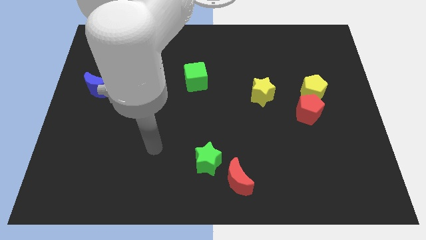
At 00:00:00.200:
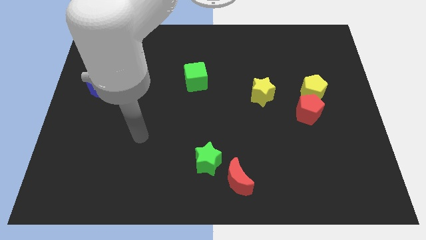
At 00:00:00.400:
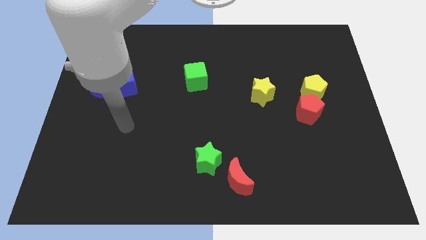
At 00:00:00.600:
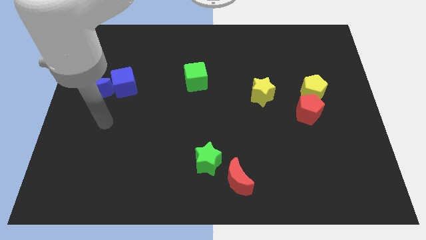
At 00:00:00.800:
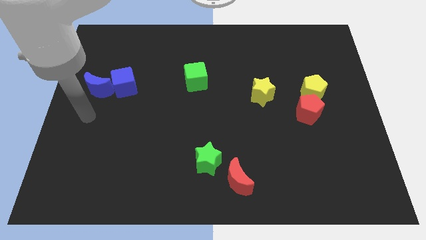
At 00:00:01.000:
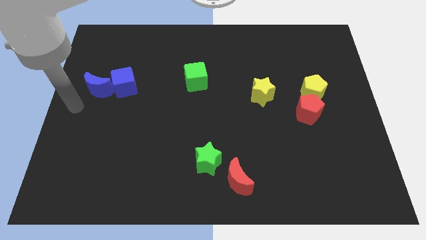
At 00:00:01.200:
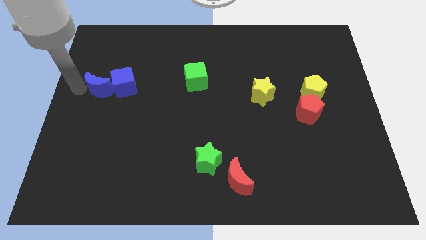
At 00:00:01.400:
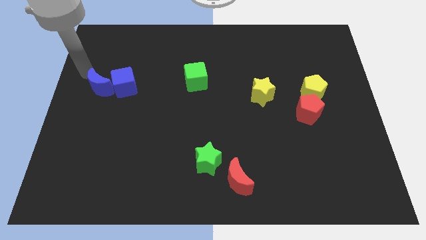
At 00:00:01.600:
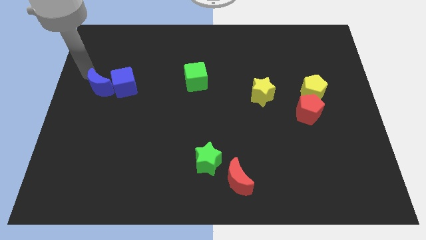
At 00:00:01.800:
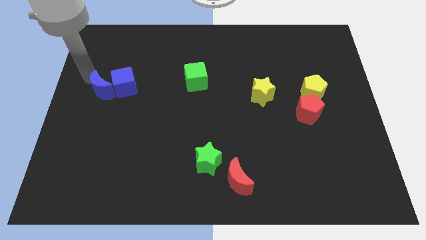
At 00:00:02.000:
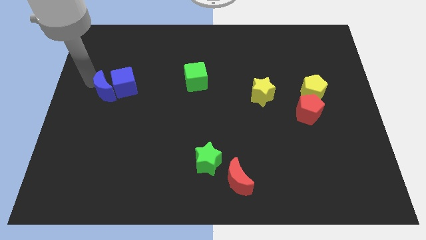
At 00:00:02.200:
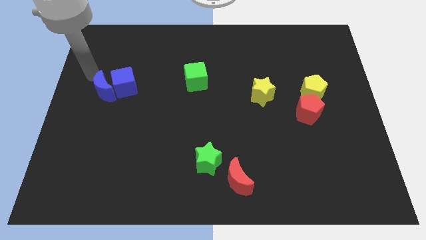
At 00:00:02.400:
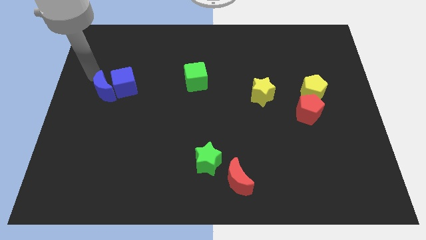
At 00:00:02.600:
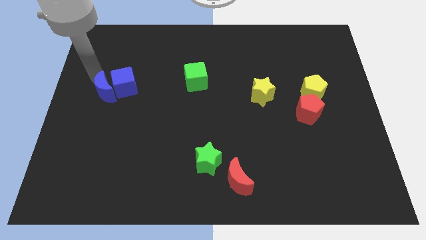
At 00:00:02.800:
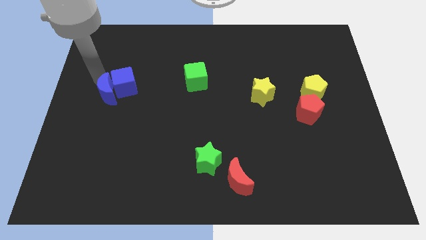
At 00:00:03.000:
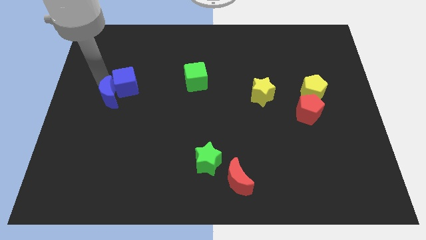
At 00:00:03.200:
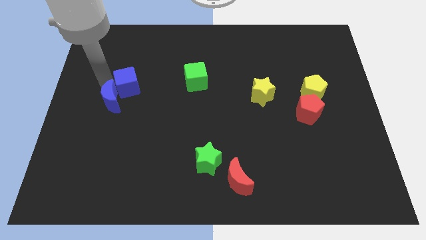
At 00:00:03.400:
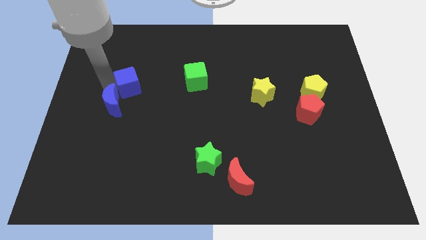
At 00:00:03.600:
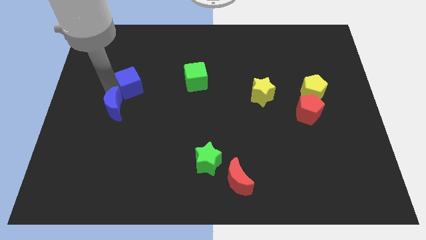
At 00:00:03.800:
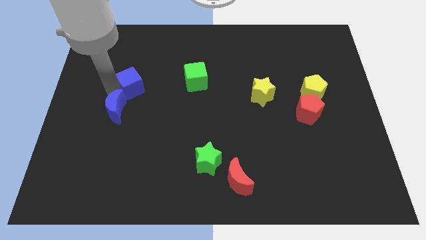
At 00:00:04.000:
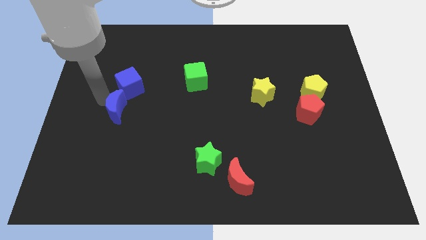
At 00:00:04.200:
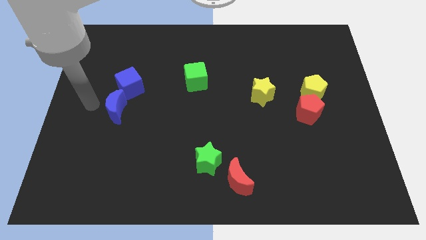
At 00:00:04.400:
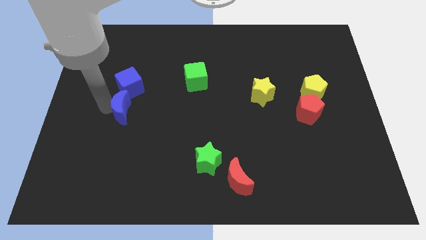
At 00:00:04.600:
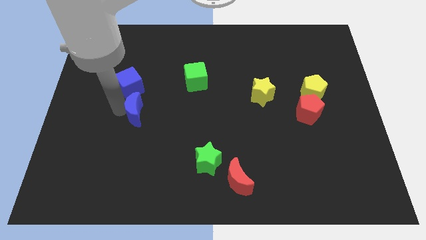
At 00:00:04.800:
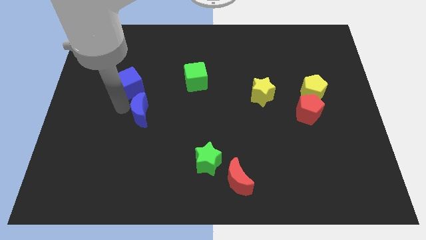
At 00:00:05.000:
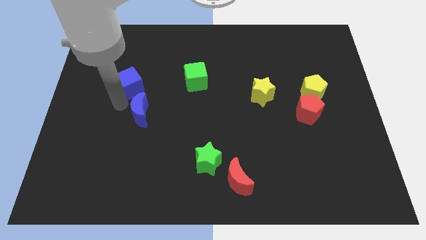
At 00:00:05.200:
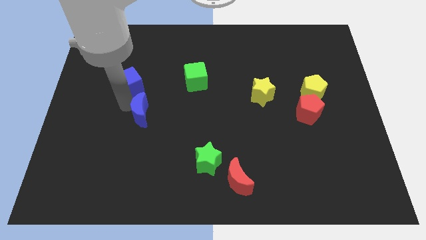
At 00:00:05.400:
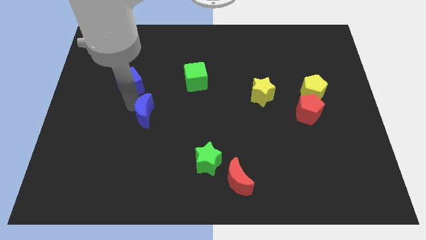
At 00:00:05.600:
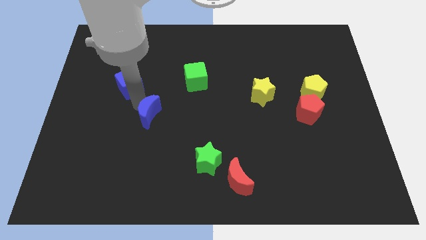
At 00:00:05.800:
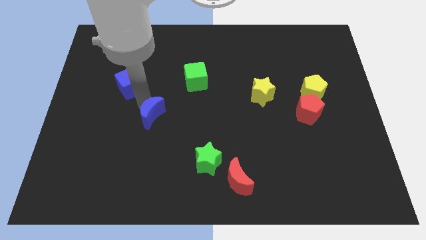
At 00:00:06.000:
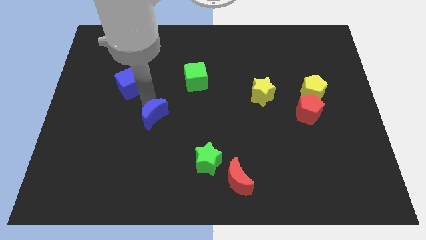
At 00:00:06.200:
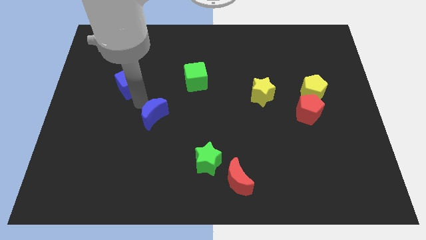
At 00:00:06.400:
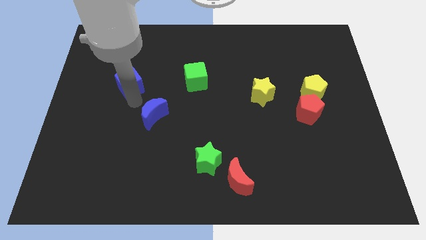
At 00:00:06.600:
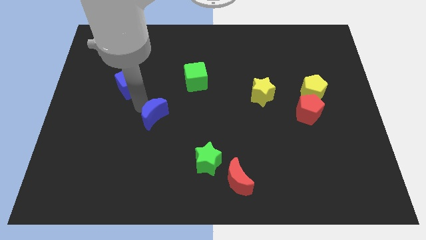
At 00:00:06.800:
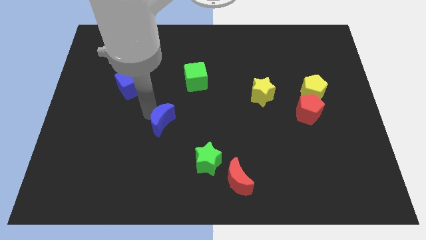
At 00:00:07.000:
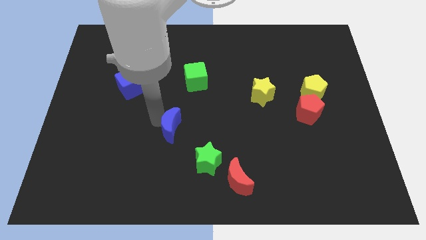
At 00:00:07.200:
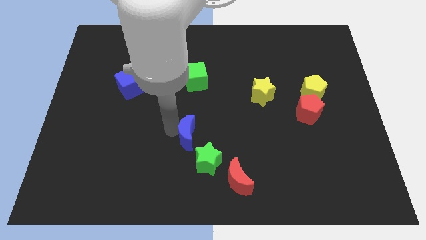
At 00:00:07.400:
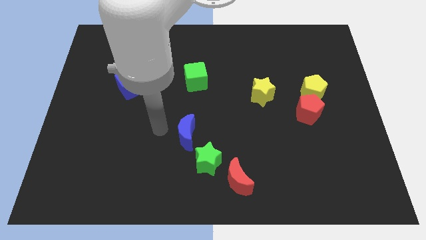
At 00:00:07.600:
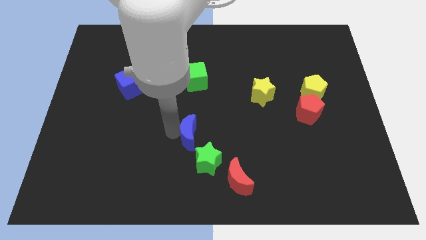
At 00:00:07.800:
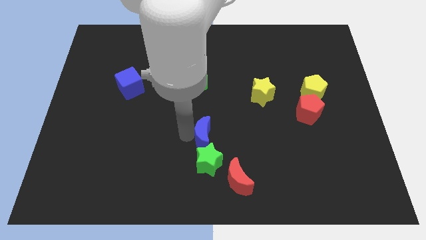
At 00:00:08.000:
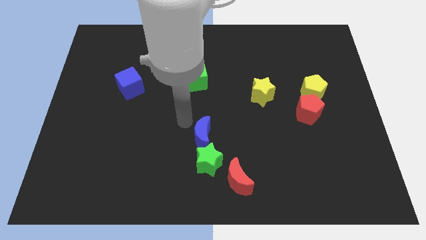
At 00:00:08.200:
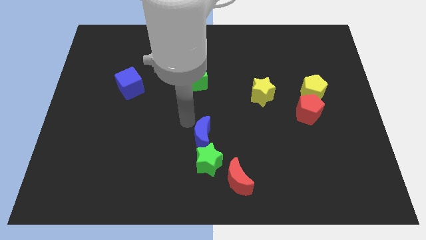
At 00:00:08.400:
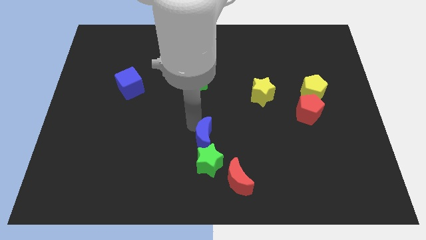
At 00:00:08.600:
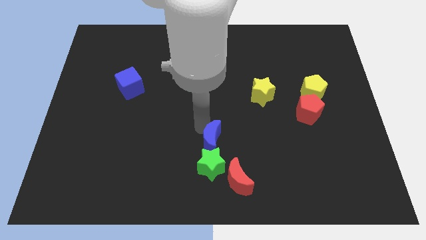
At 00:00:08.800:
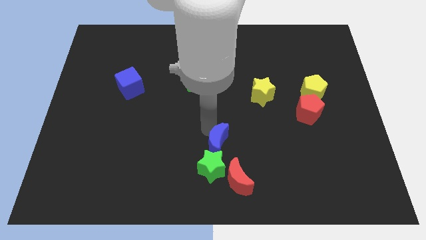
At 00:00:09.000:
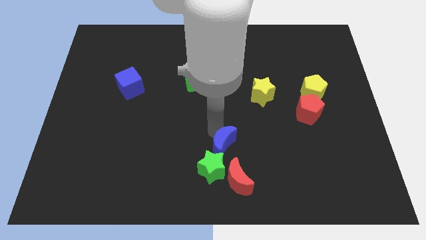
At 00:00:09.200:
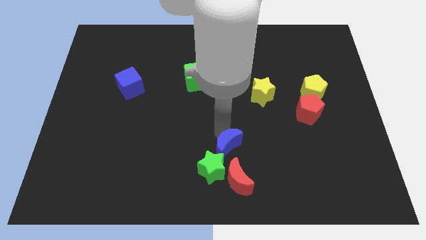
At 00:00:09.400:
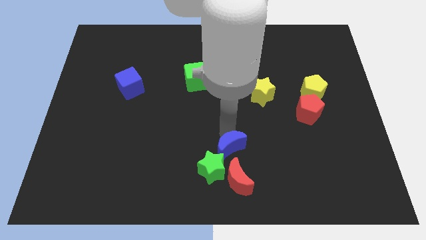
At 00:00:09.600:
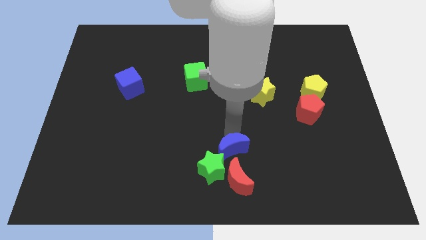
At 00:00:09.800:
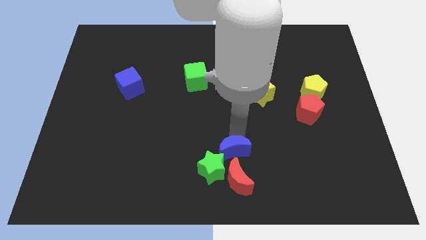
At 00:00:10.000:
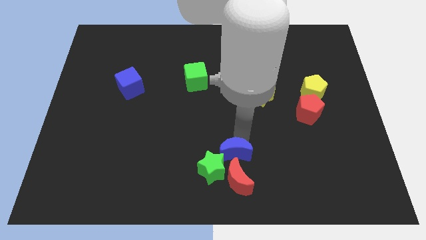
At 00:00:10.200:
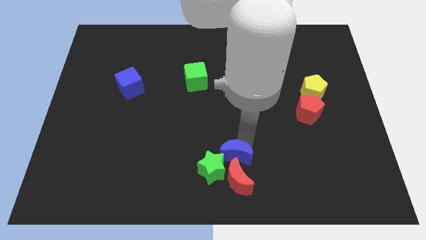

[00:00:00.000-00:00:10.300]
put the blue moon close to the red moon

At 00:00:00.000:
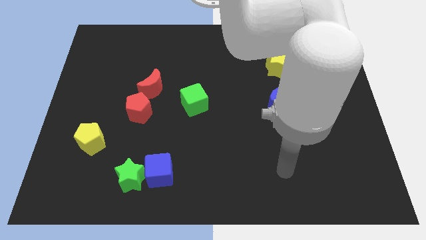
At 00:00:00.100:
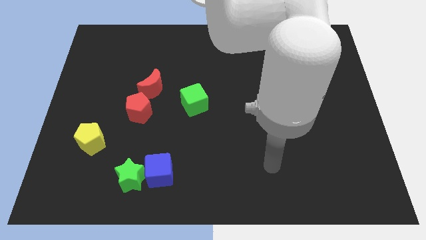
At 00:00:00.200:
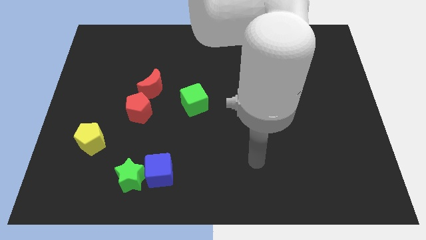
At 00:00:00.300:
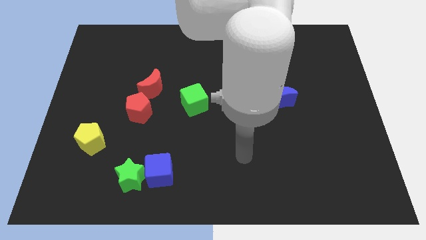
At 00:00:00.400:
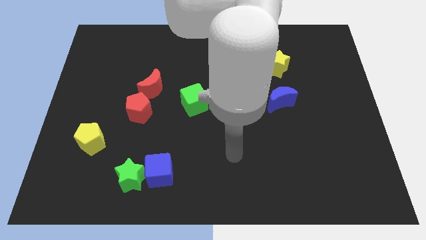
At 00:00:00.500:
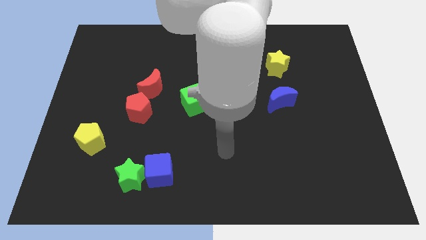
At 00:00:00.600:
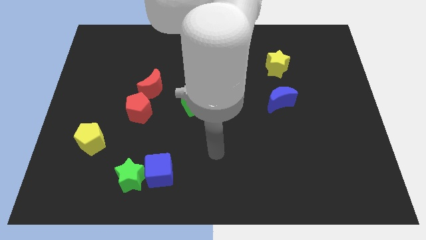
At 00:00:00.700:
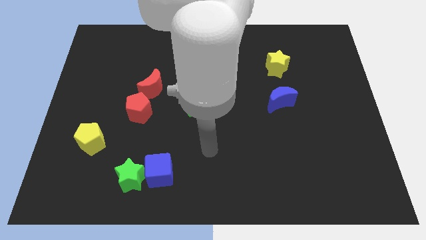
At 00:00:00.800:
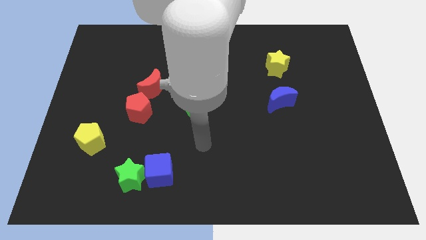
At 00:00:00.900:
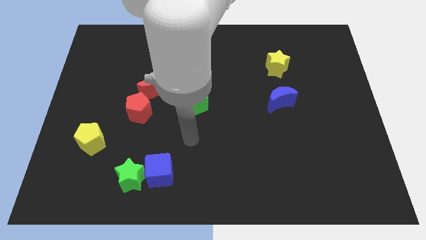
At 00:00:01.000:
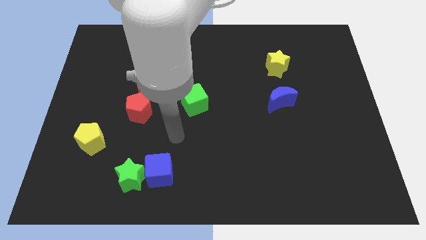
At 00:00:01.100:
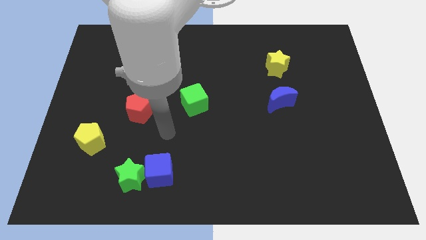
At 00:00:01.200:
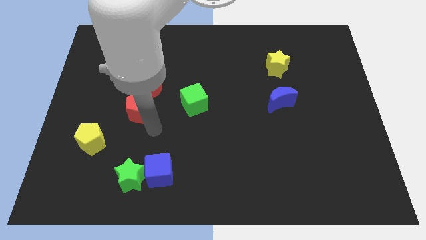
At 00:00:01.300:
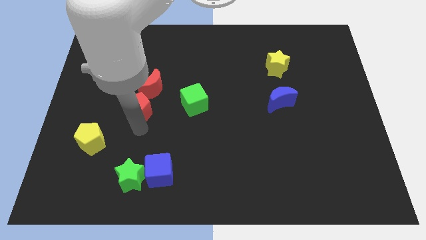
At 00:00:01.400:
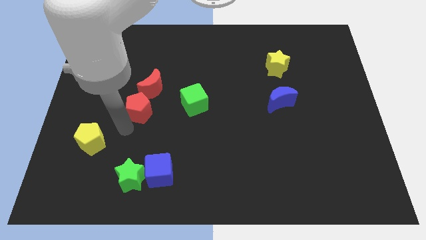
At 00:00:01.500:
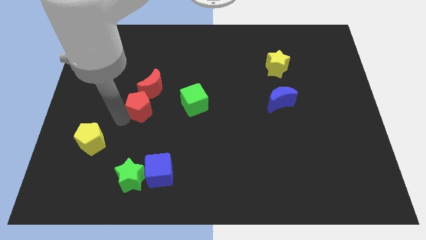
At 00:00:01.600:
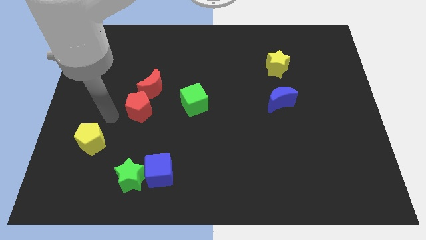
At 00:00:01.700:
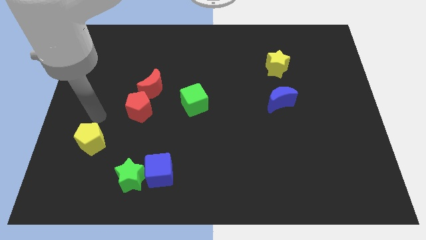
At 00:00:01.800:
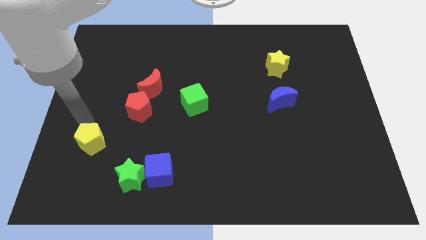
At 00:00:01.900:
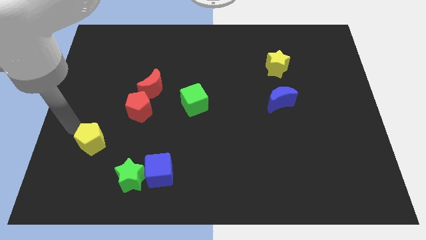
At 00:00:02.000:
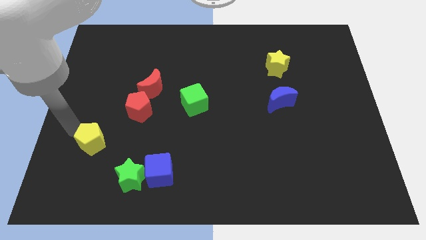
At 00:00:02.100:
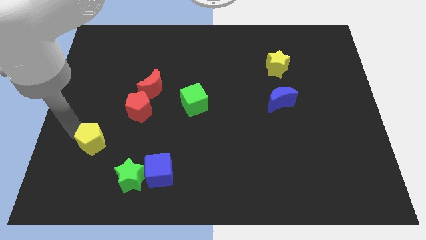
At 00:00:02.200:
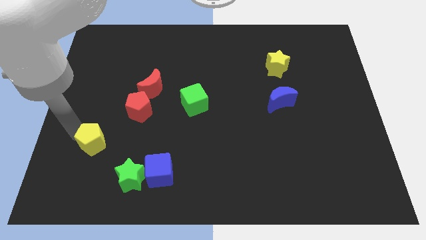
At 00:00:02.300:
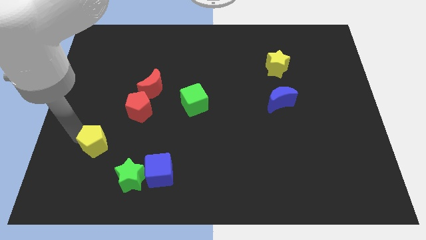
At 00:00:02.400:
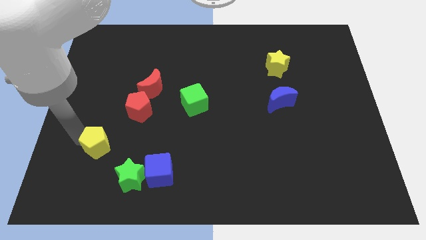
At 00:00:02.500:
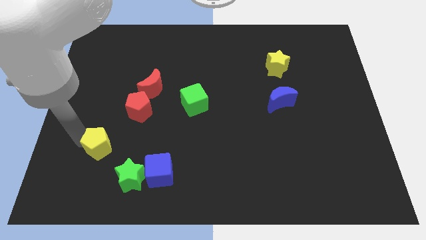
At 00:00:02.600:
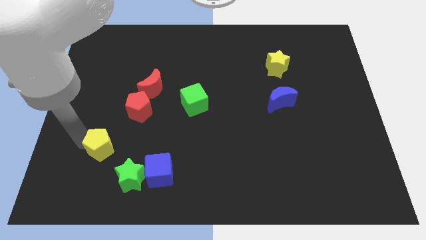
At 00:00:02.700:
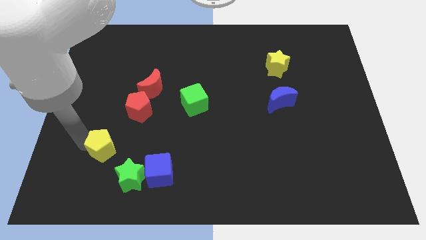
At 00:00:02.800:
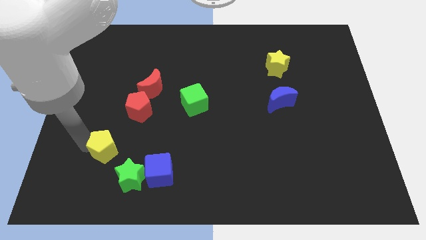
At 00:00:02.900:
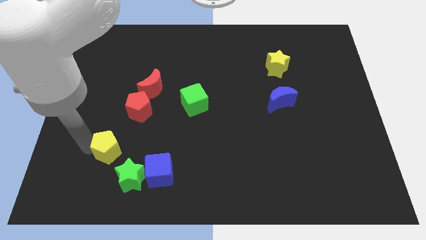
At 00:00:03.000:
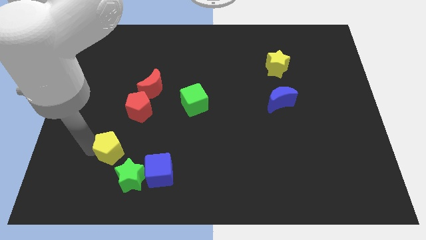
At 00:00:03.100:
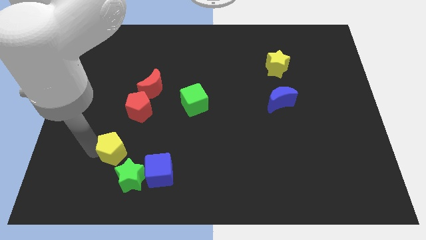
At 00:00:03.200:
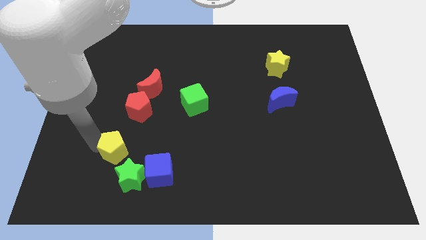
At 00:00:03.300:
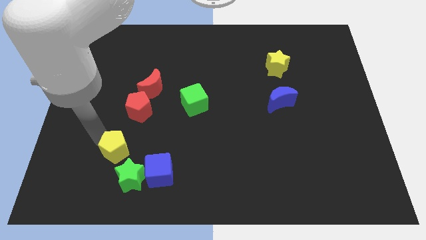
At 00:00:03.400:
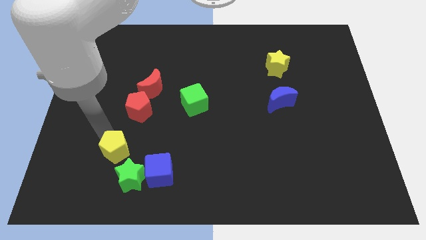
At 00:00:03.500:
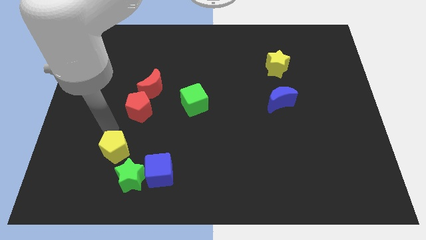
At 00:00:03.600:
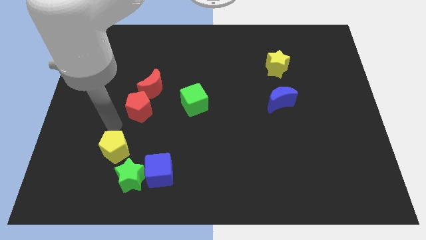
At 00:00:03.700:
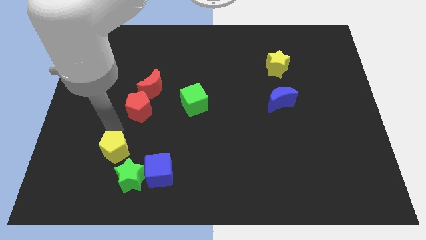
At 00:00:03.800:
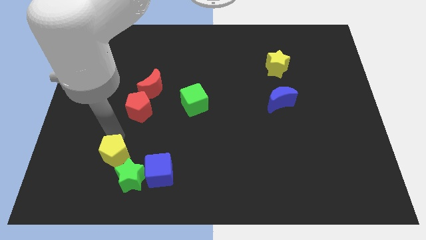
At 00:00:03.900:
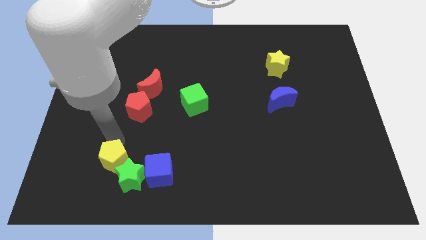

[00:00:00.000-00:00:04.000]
put the yellow pentagon towards the green star
